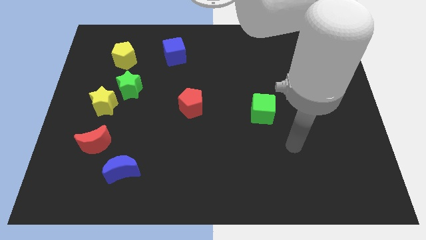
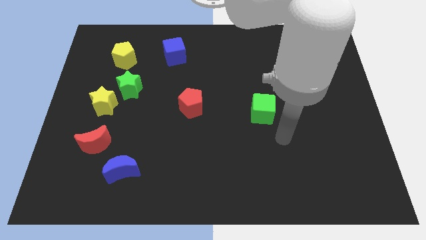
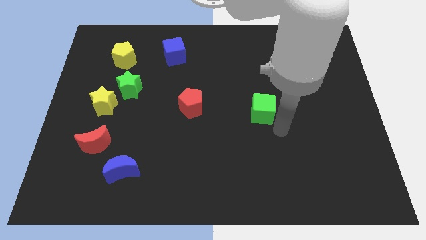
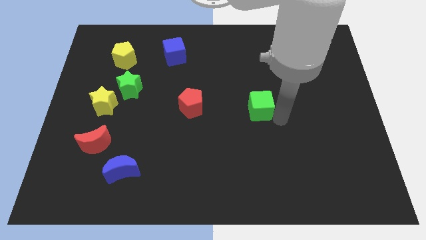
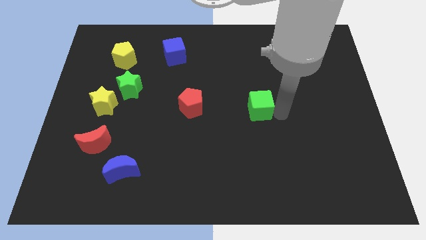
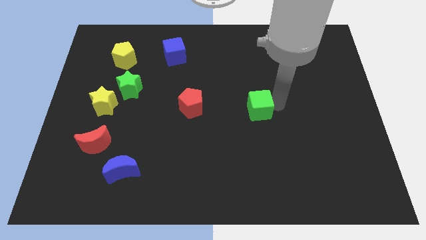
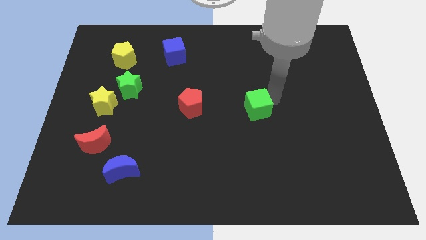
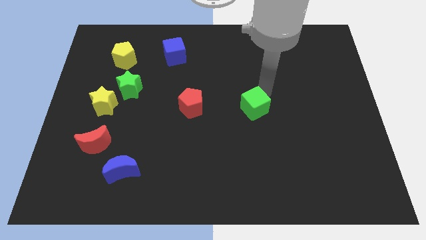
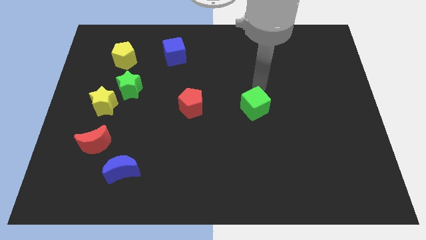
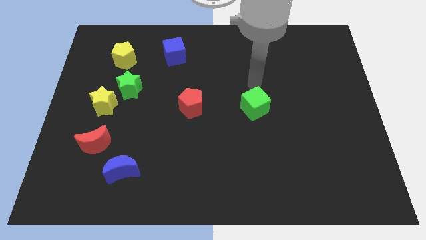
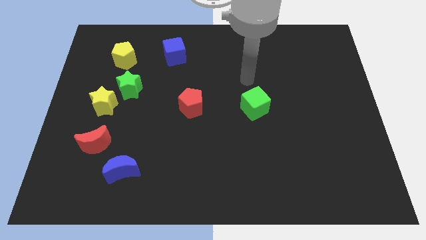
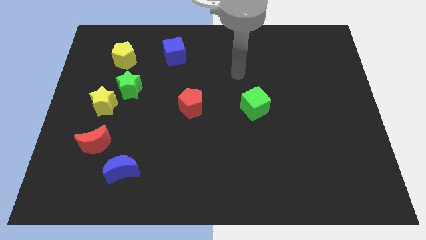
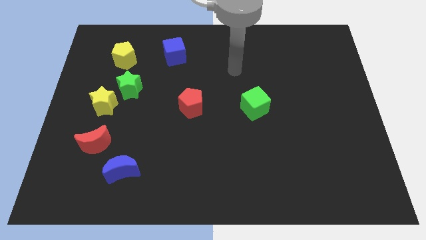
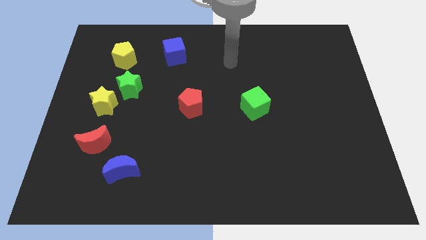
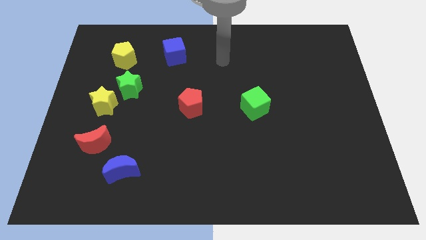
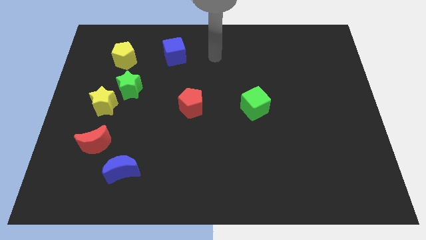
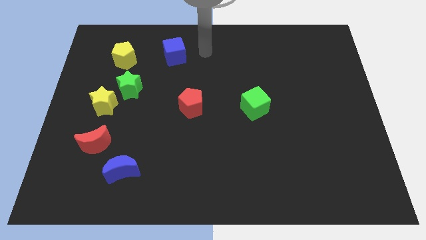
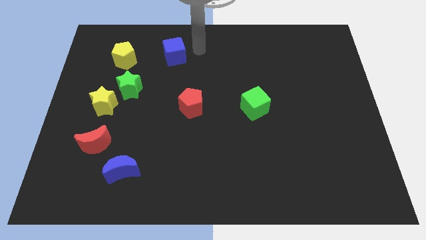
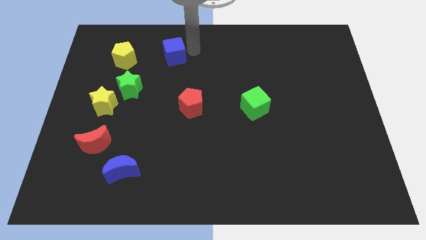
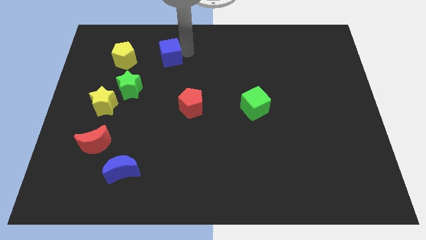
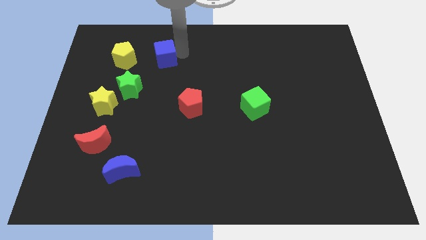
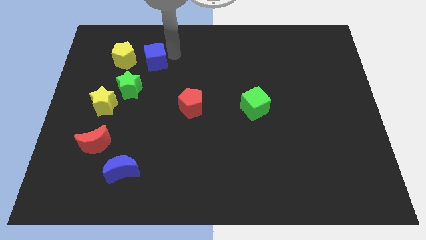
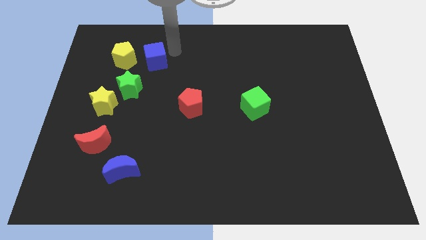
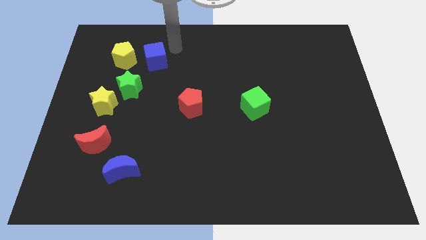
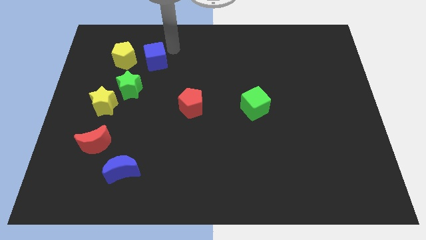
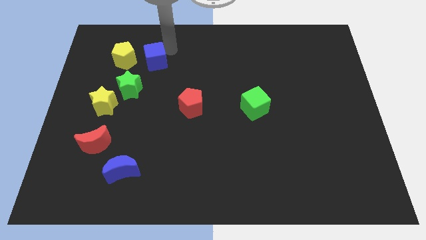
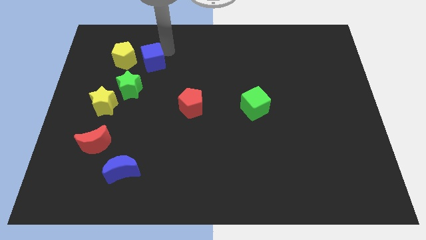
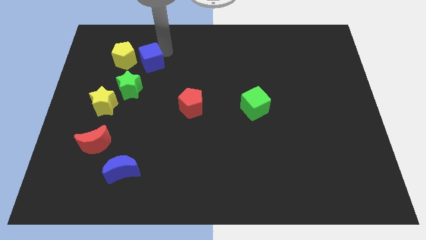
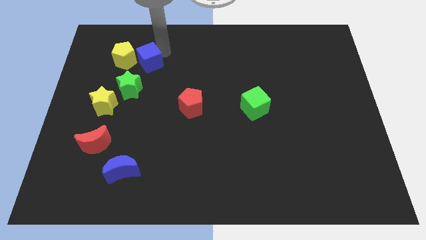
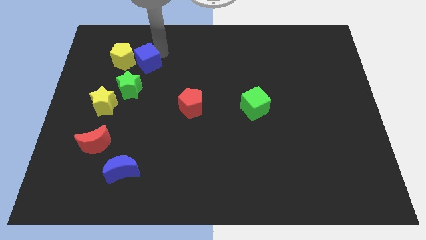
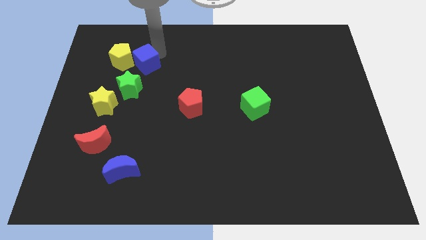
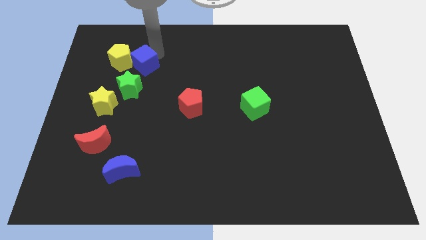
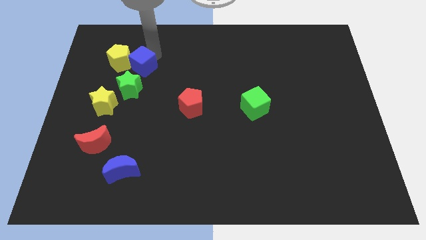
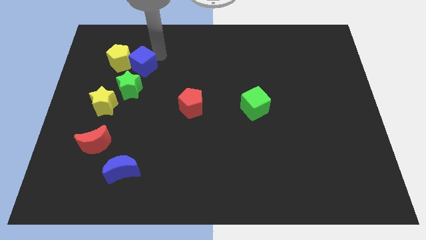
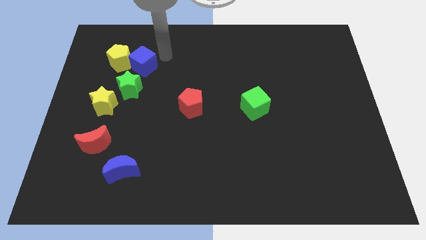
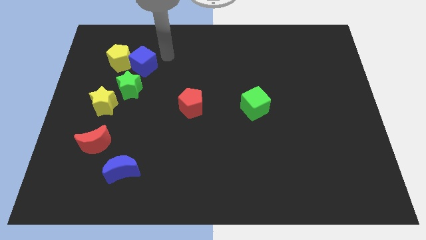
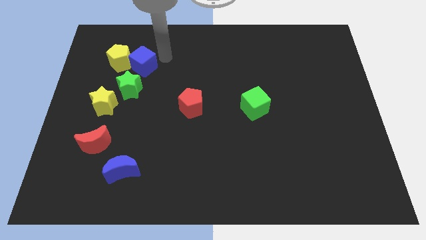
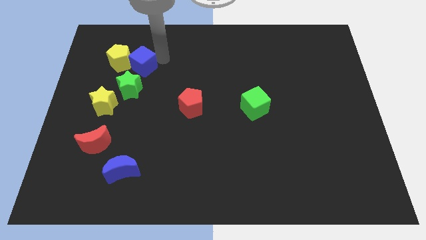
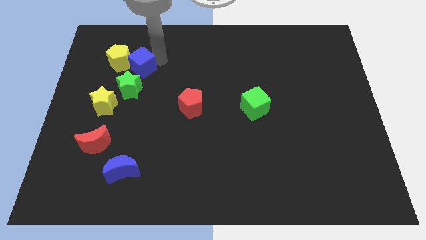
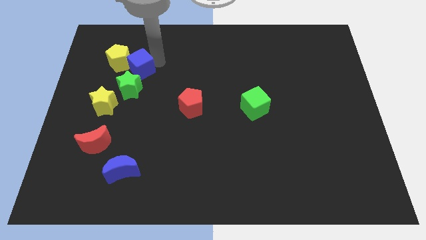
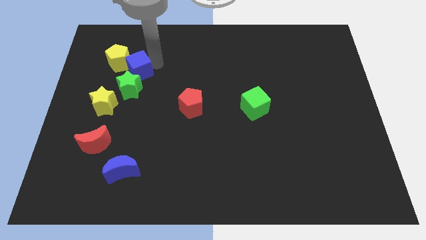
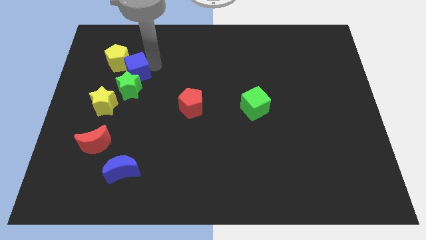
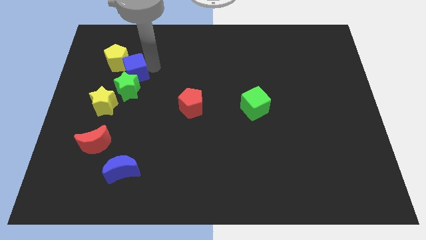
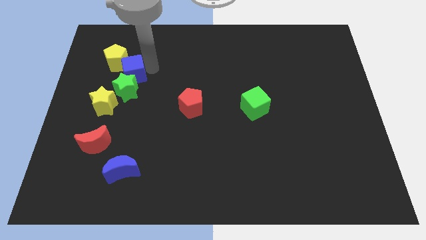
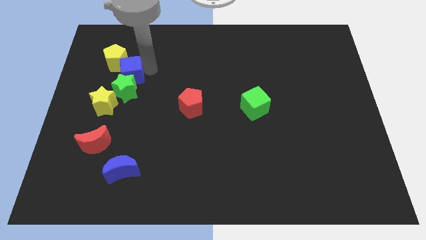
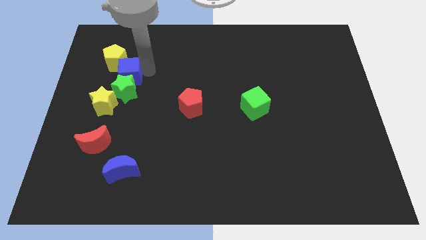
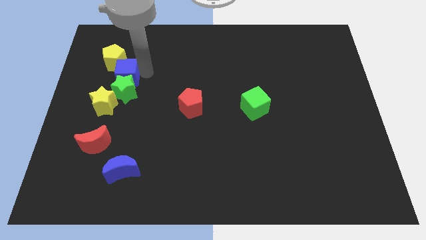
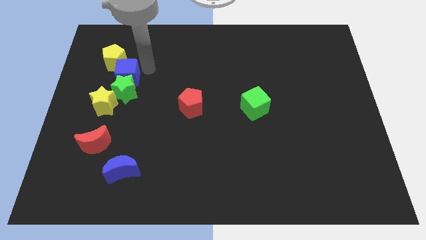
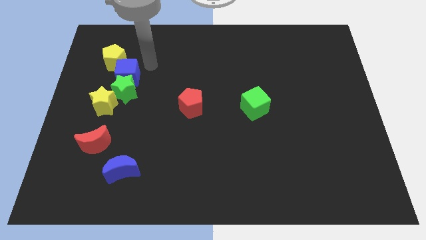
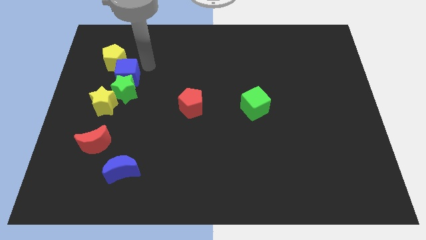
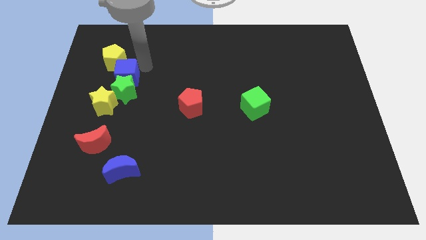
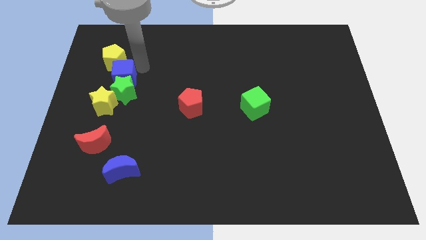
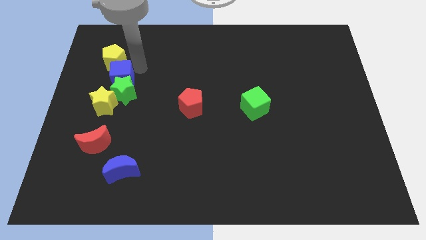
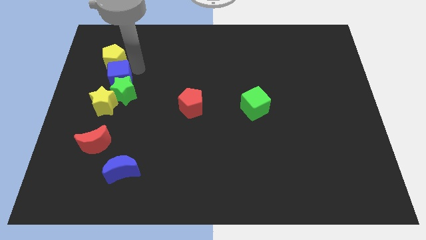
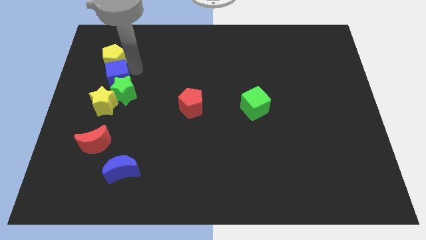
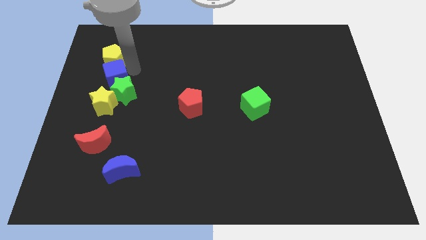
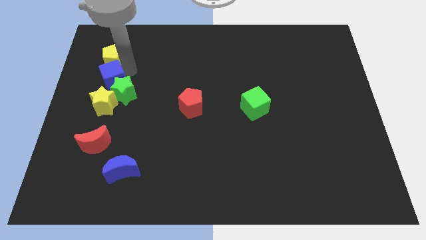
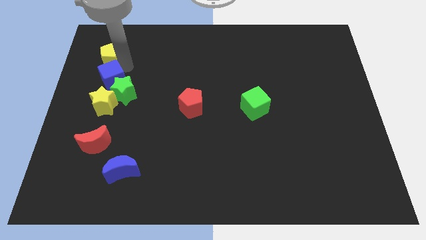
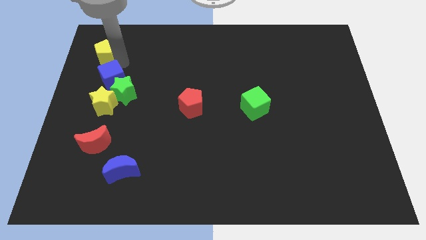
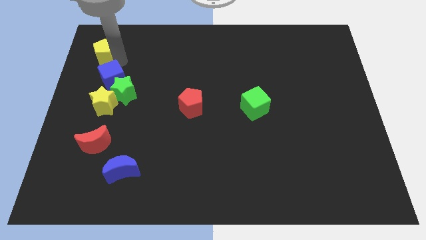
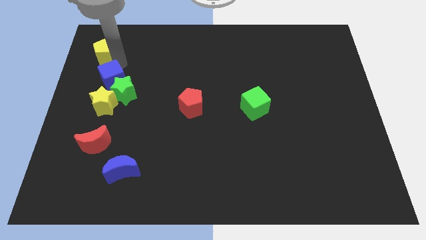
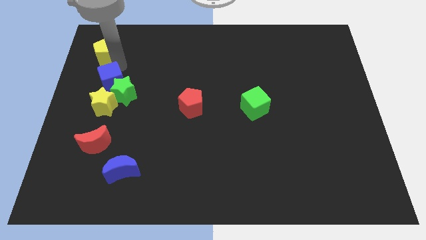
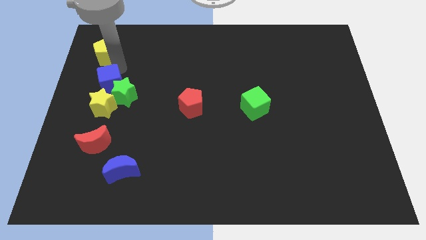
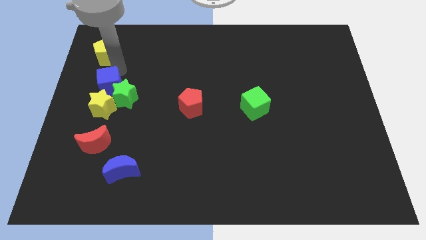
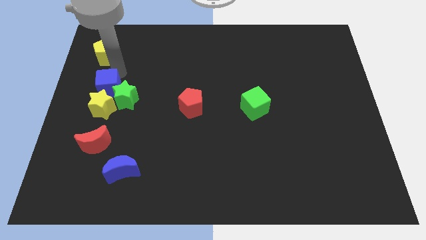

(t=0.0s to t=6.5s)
put the blue cube towards the yellow star

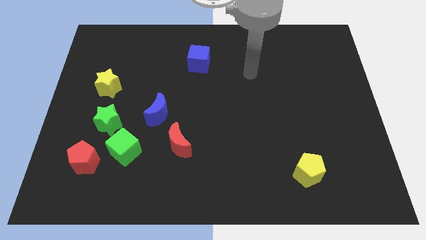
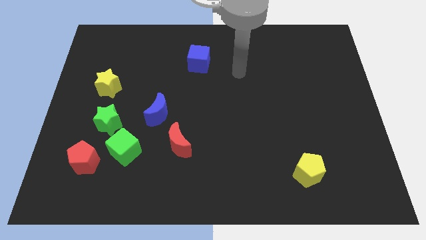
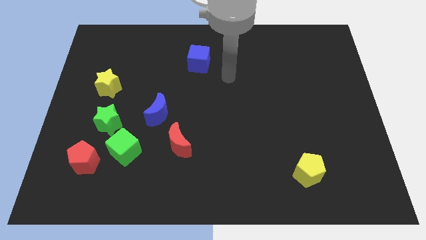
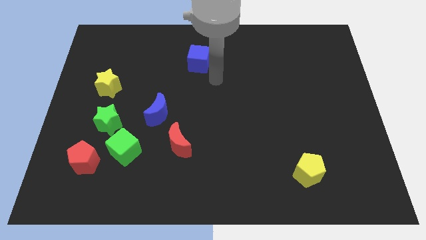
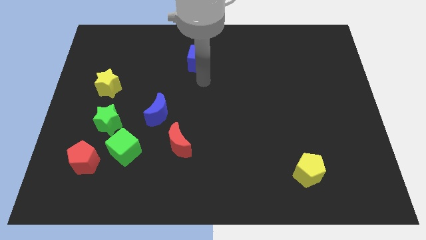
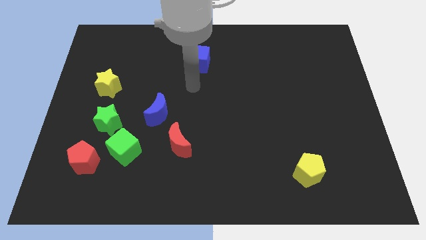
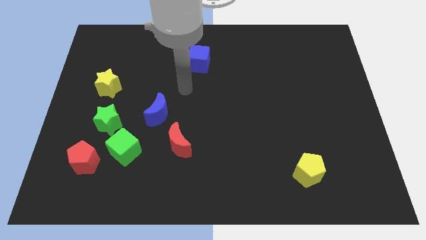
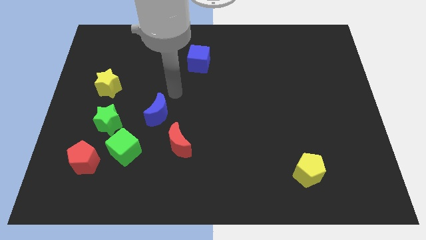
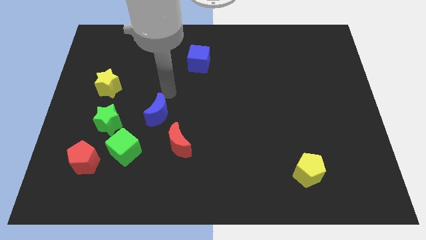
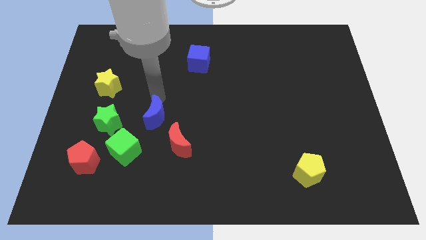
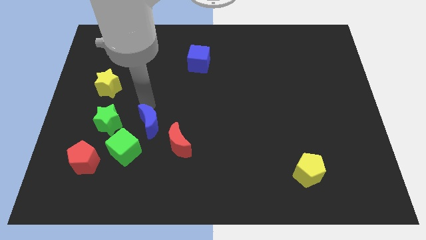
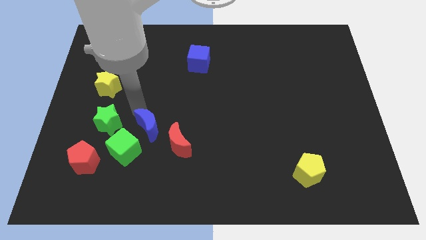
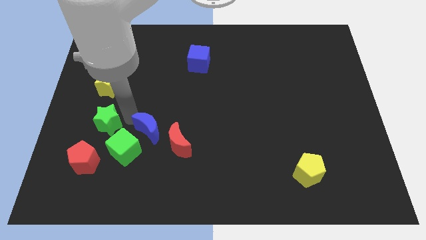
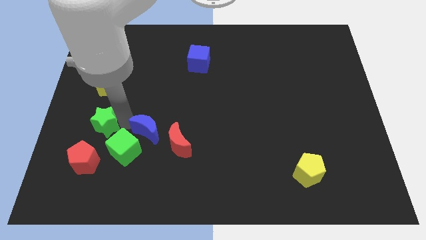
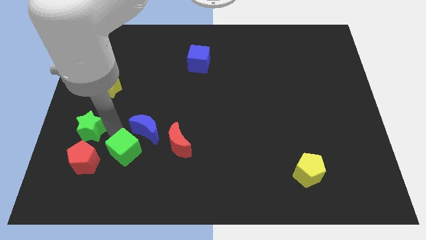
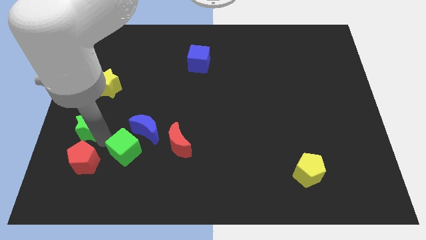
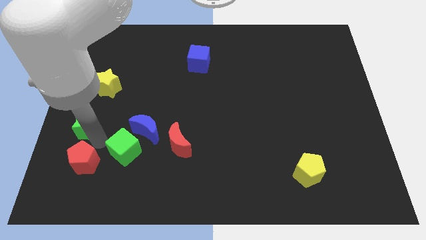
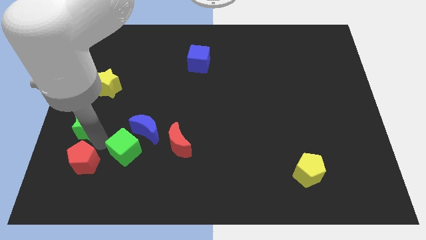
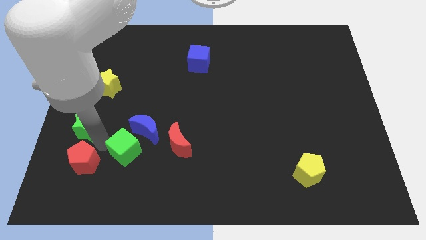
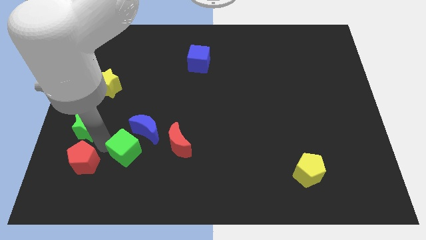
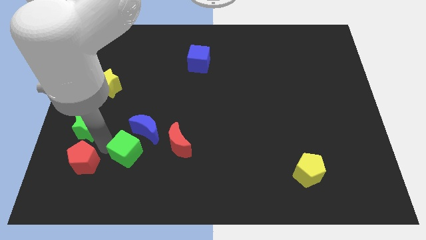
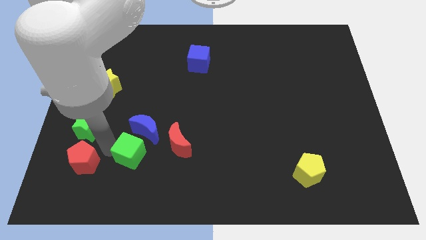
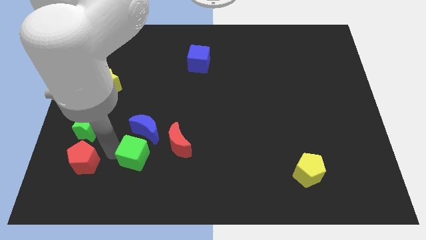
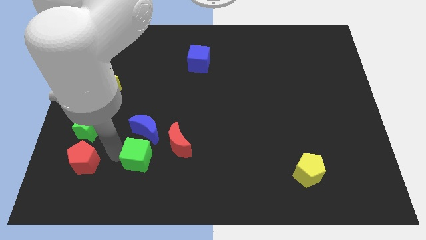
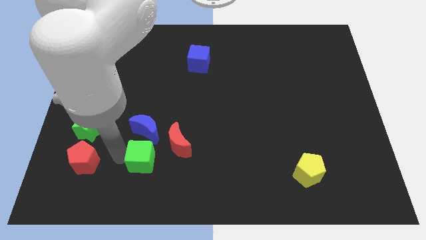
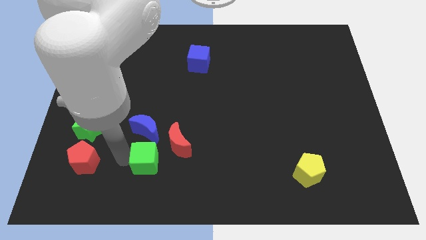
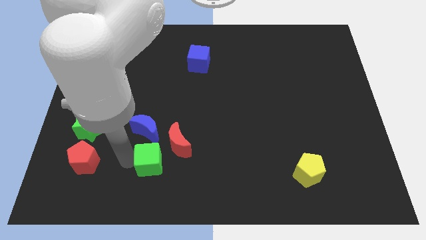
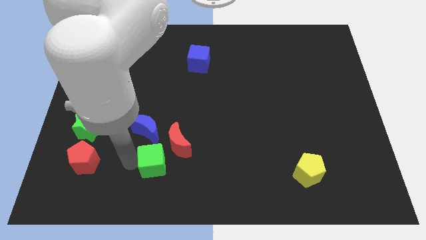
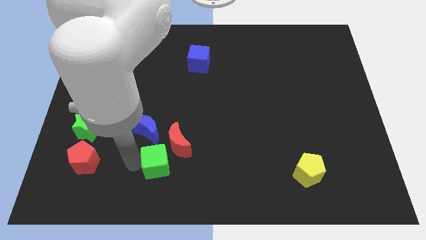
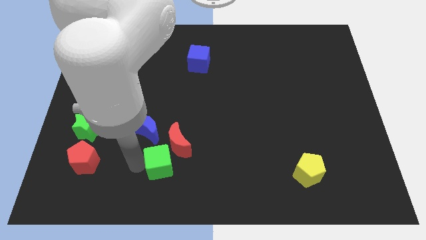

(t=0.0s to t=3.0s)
put the green cube to the red moon
